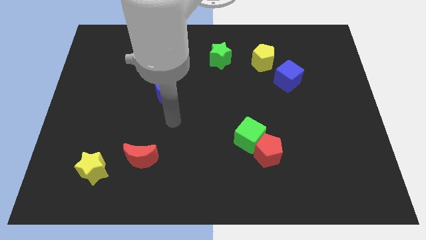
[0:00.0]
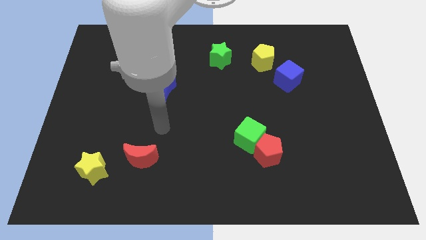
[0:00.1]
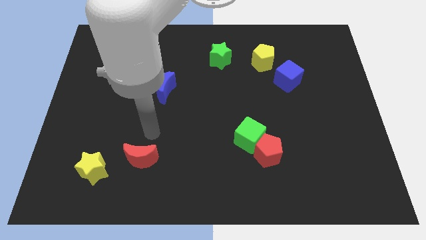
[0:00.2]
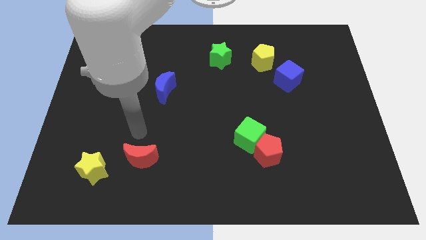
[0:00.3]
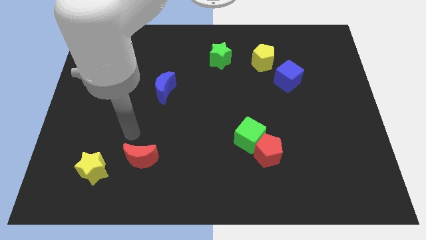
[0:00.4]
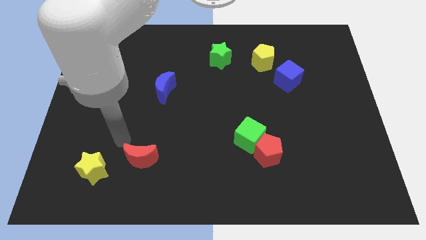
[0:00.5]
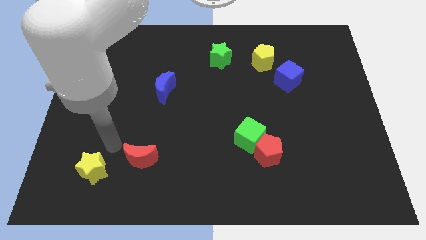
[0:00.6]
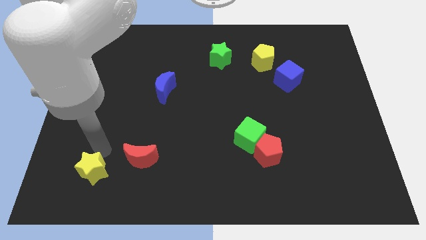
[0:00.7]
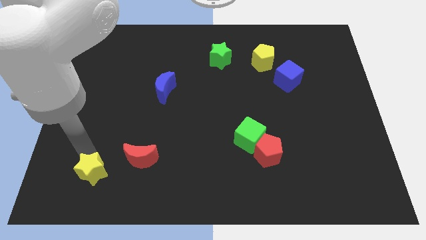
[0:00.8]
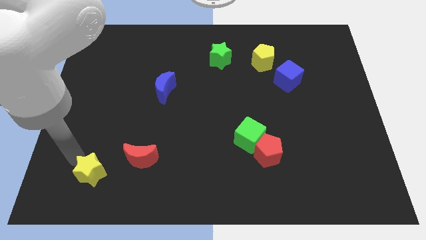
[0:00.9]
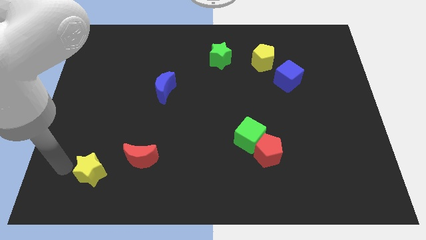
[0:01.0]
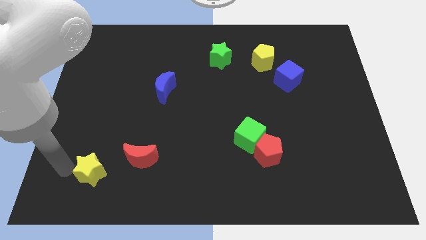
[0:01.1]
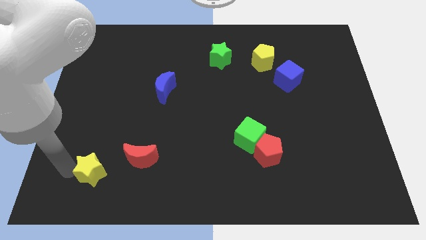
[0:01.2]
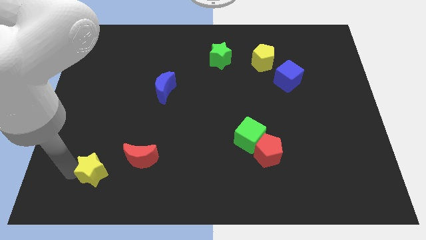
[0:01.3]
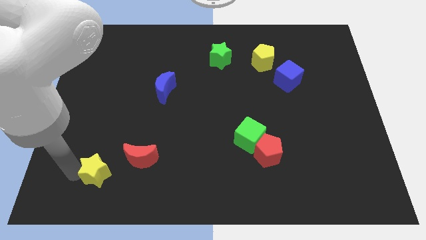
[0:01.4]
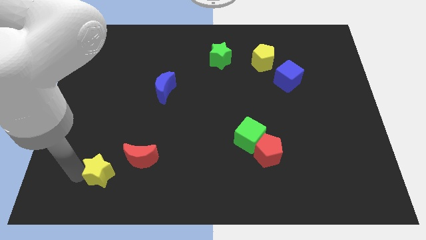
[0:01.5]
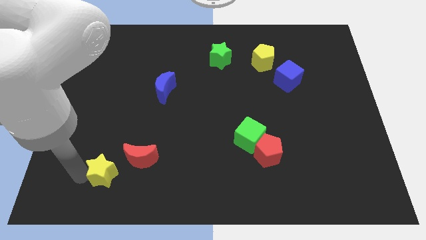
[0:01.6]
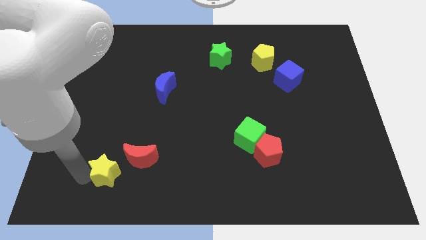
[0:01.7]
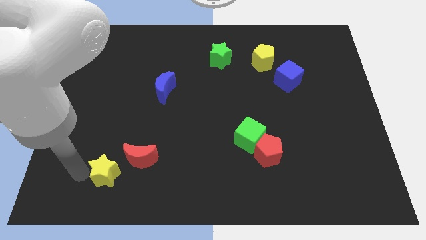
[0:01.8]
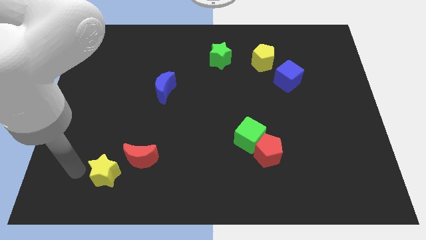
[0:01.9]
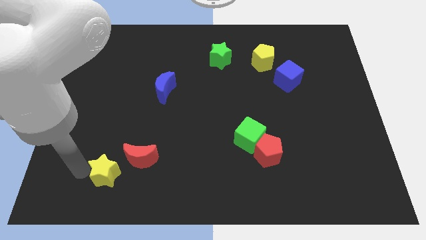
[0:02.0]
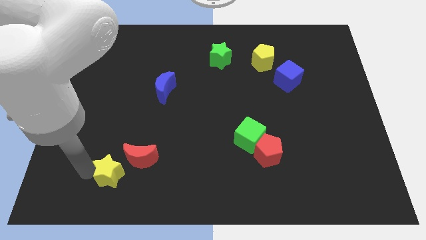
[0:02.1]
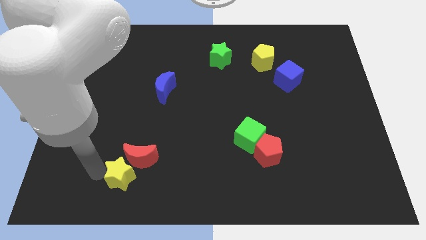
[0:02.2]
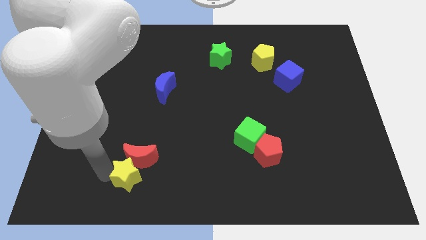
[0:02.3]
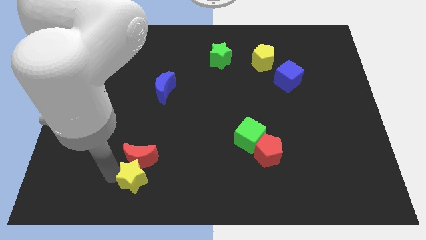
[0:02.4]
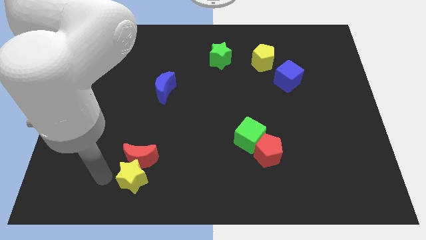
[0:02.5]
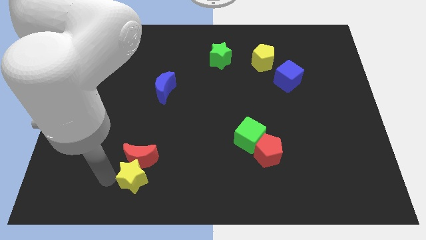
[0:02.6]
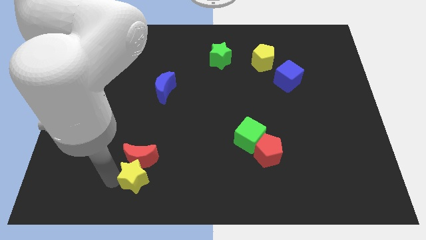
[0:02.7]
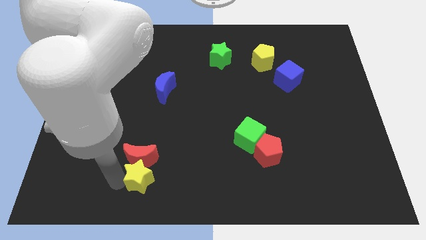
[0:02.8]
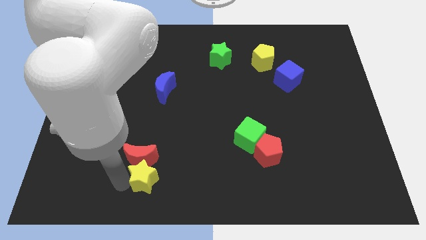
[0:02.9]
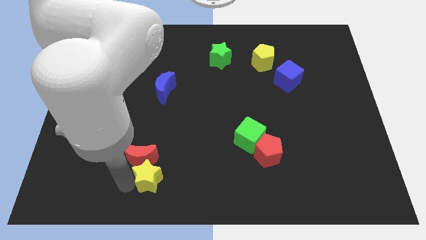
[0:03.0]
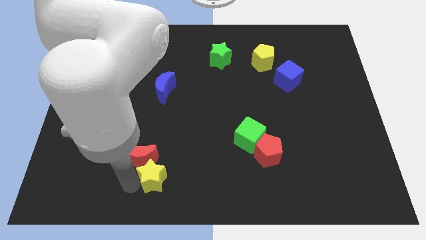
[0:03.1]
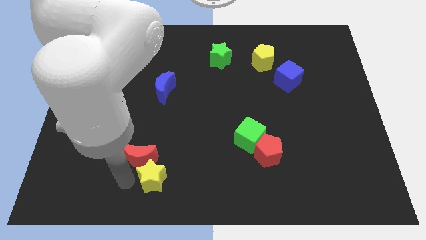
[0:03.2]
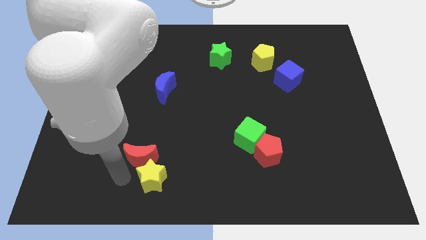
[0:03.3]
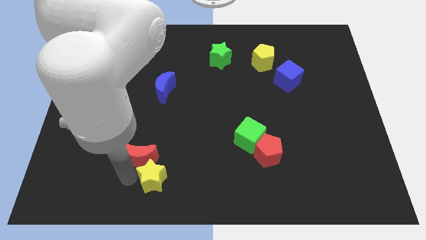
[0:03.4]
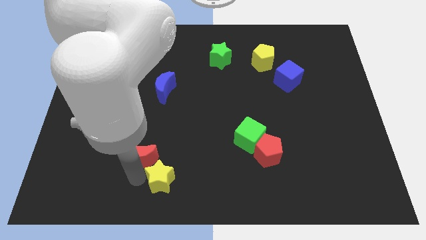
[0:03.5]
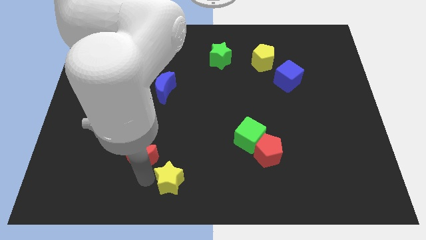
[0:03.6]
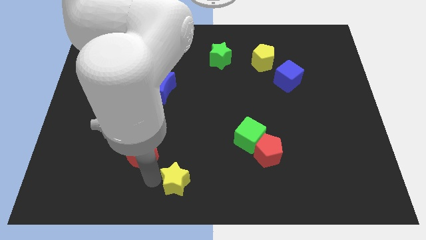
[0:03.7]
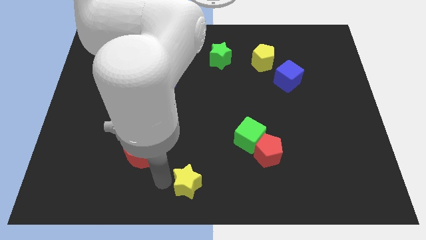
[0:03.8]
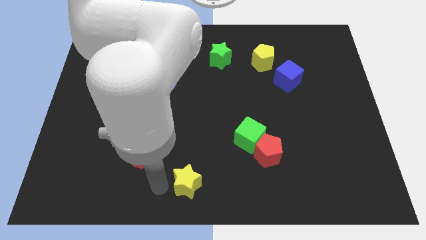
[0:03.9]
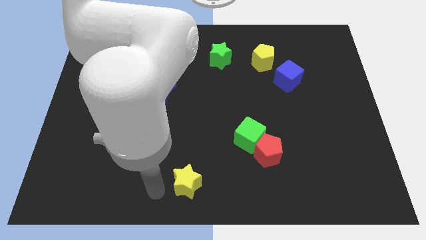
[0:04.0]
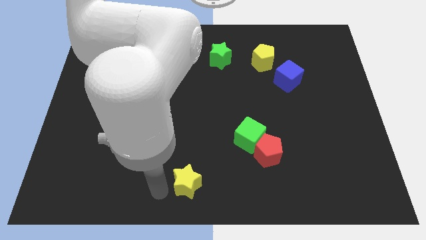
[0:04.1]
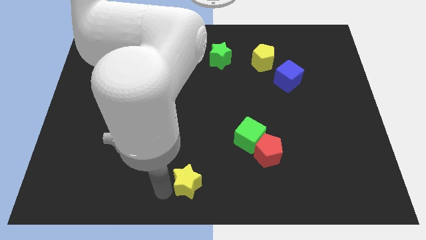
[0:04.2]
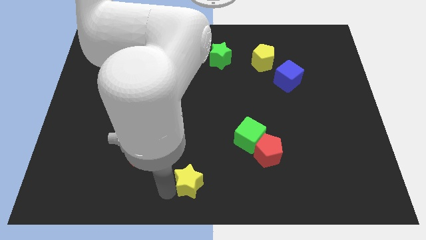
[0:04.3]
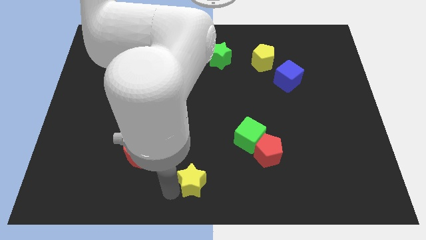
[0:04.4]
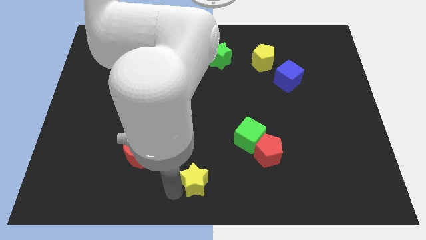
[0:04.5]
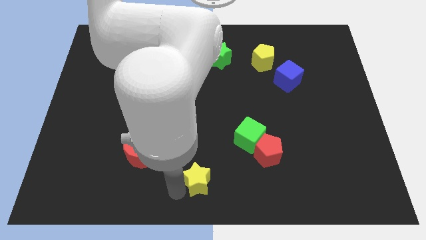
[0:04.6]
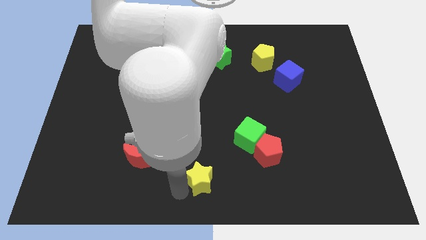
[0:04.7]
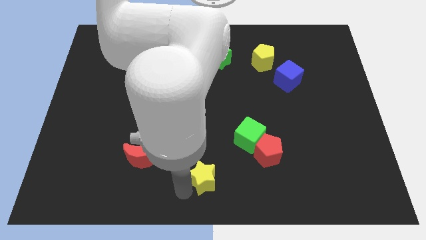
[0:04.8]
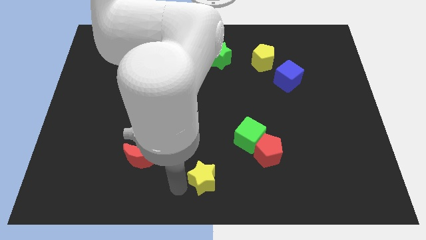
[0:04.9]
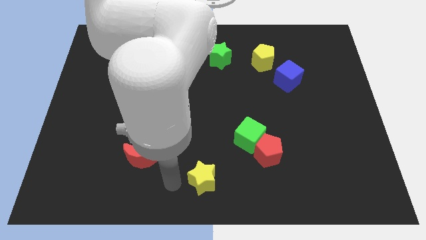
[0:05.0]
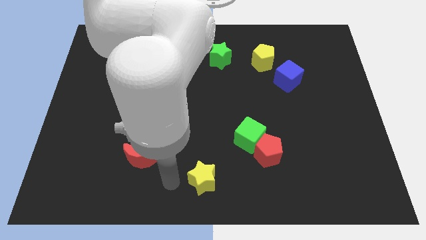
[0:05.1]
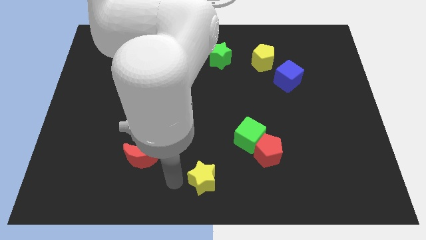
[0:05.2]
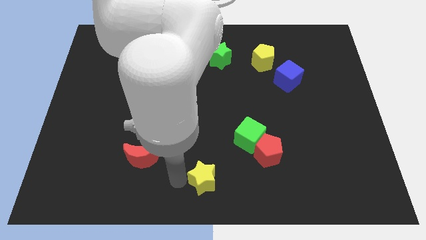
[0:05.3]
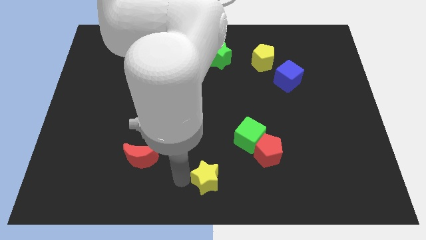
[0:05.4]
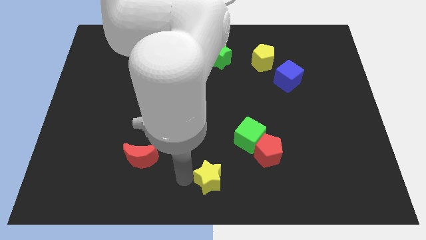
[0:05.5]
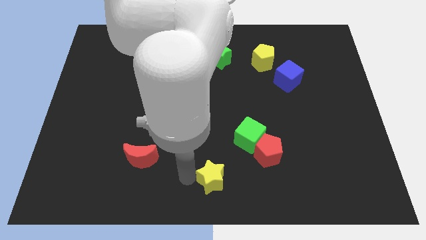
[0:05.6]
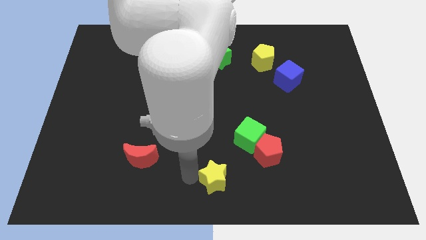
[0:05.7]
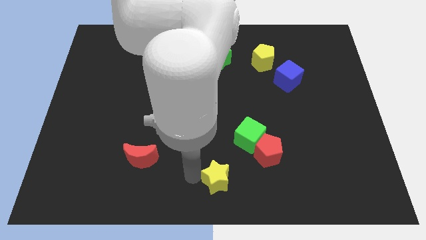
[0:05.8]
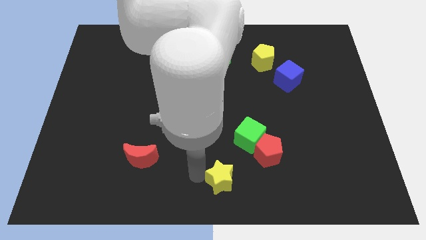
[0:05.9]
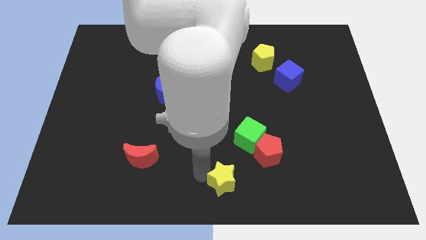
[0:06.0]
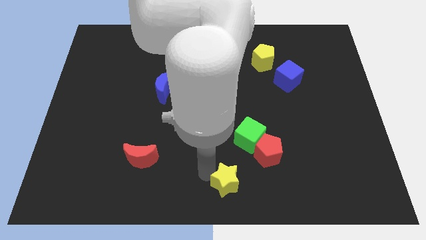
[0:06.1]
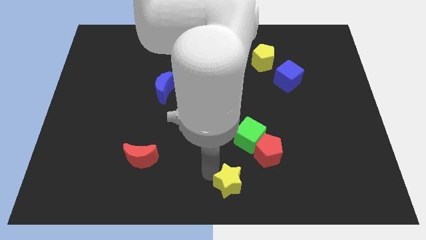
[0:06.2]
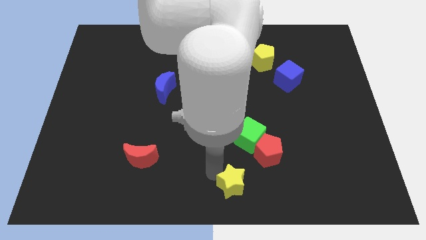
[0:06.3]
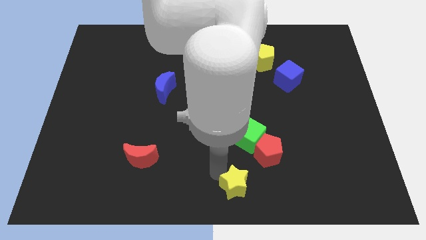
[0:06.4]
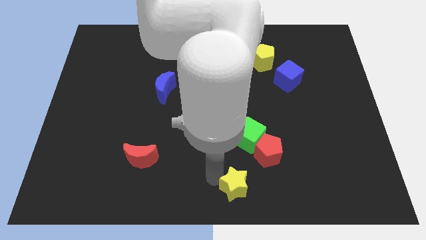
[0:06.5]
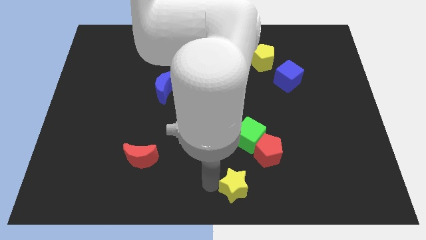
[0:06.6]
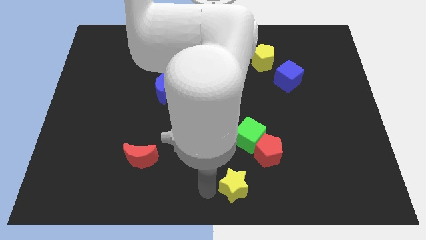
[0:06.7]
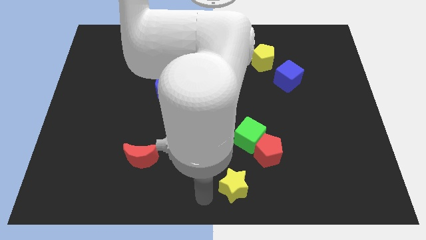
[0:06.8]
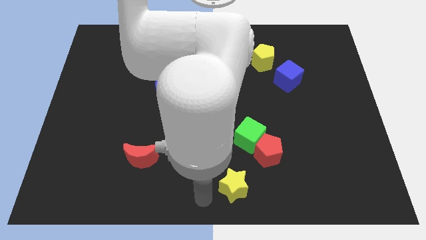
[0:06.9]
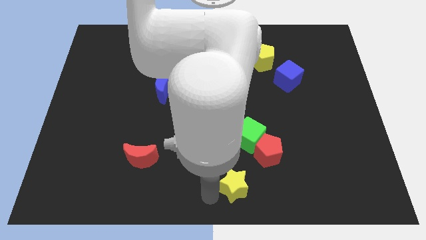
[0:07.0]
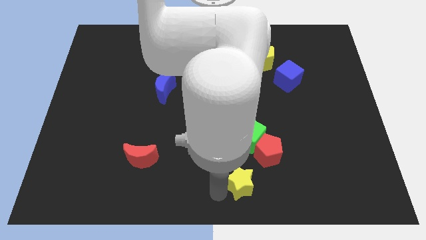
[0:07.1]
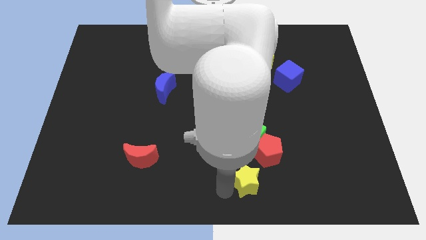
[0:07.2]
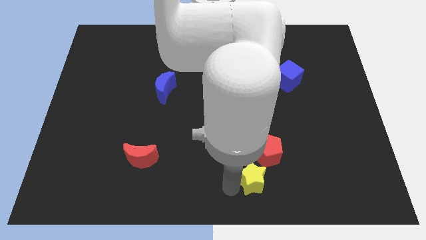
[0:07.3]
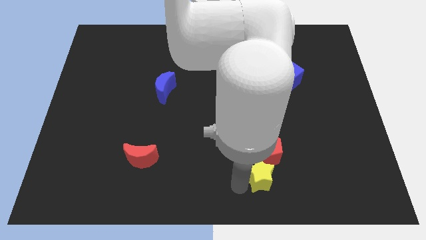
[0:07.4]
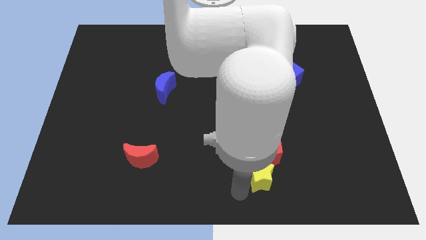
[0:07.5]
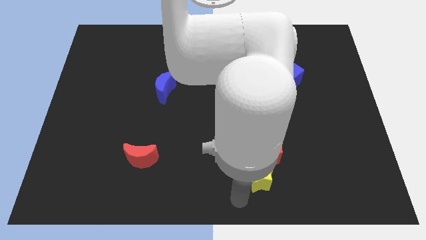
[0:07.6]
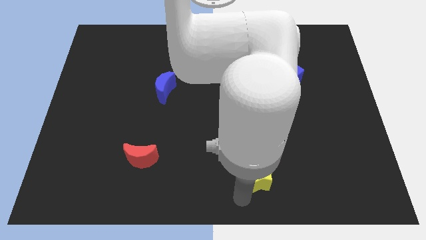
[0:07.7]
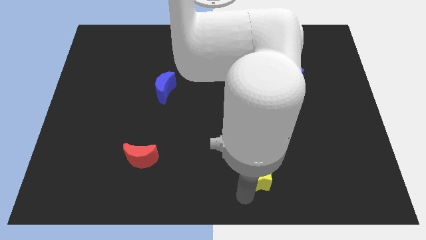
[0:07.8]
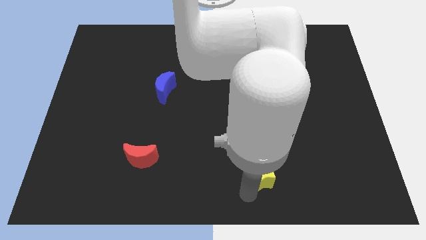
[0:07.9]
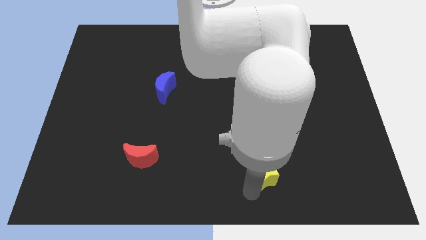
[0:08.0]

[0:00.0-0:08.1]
move the yellow star to the bottom right side of the green cube
